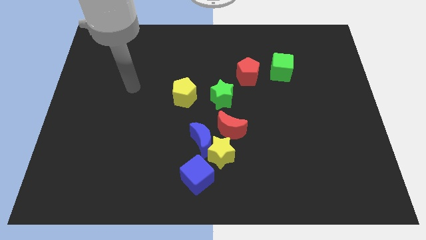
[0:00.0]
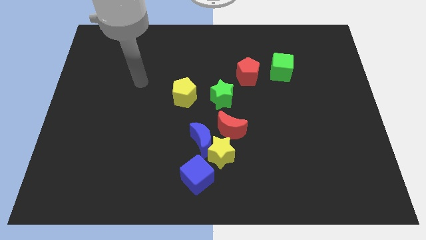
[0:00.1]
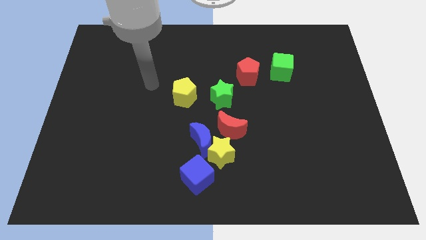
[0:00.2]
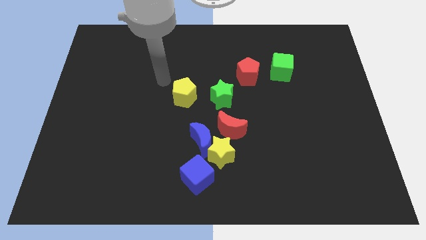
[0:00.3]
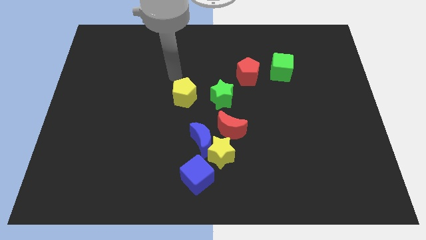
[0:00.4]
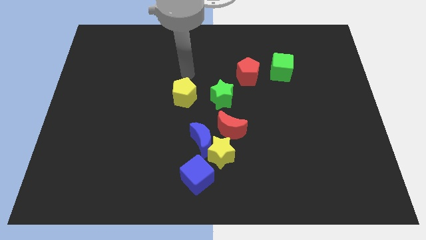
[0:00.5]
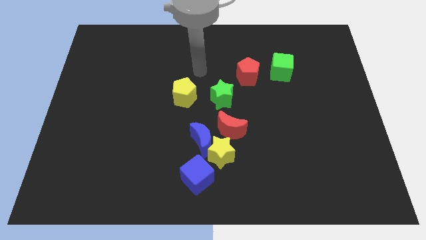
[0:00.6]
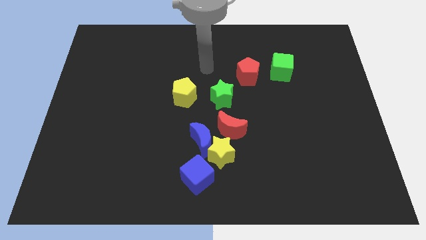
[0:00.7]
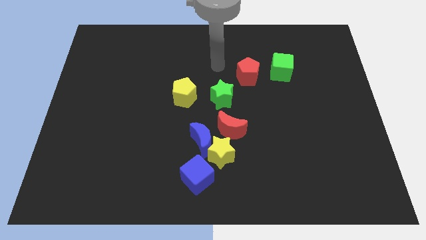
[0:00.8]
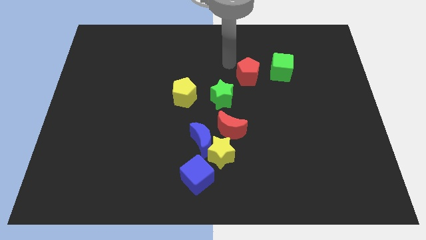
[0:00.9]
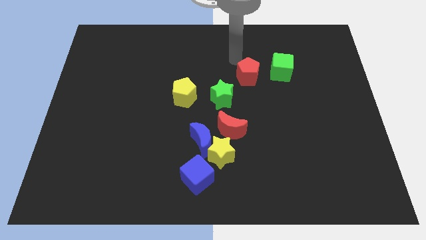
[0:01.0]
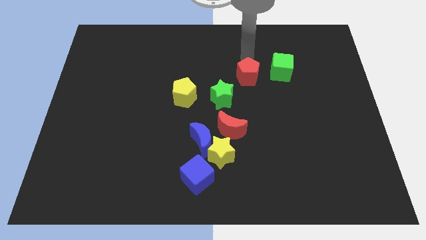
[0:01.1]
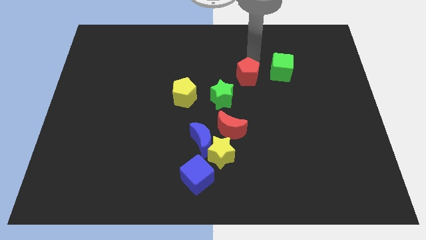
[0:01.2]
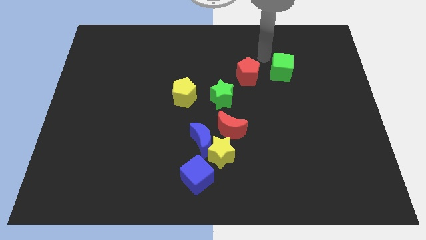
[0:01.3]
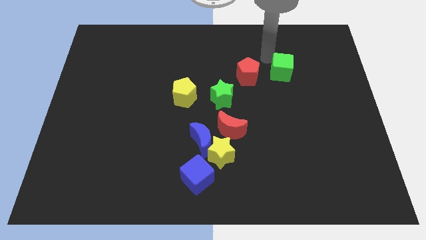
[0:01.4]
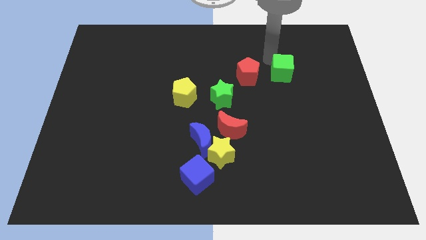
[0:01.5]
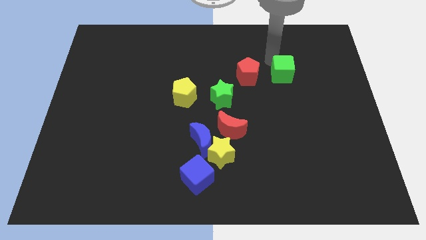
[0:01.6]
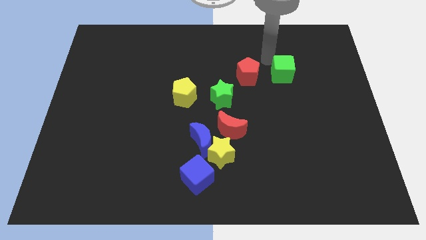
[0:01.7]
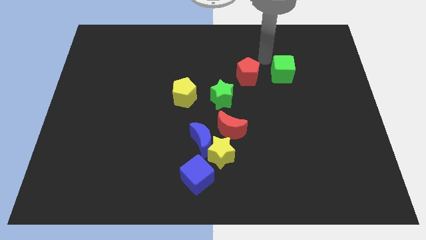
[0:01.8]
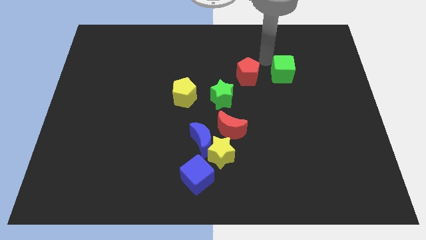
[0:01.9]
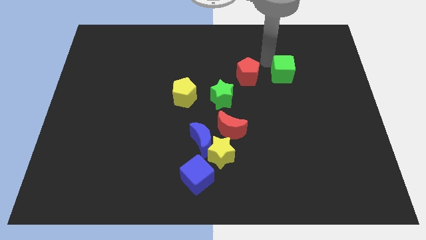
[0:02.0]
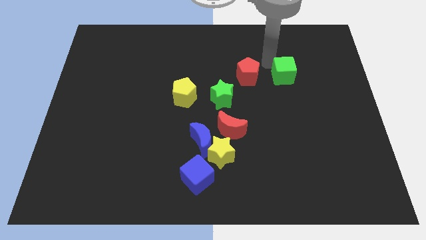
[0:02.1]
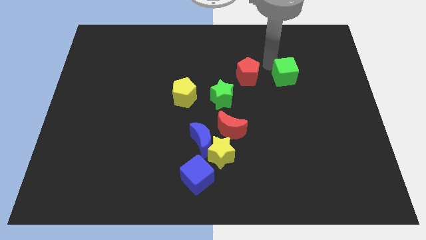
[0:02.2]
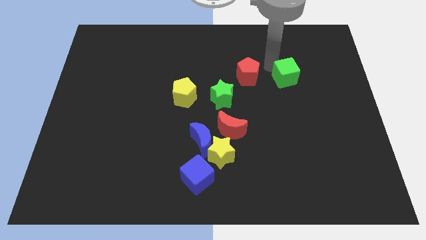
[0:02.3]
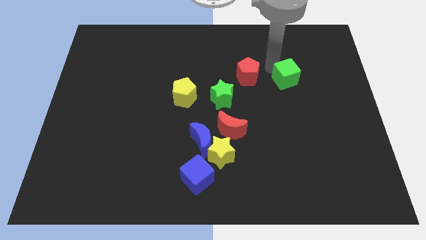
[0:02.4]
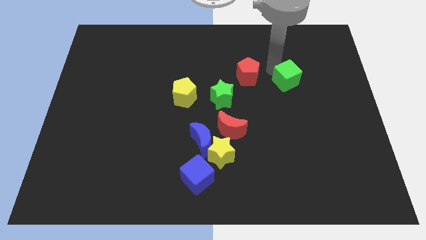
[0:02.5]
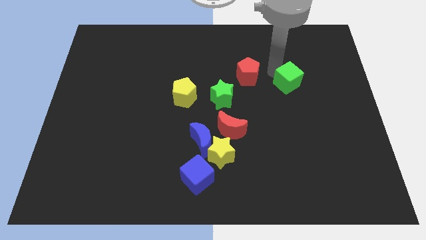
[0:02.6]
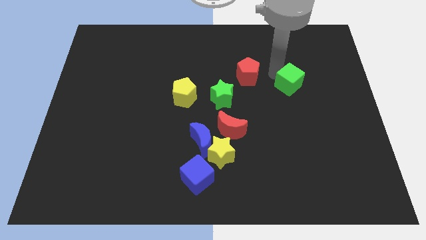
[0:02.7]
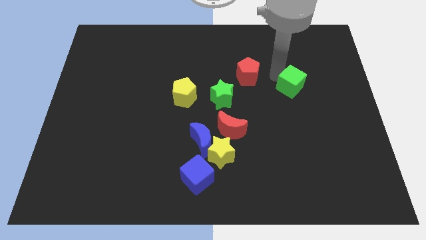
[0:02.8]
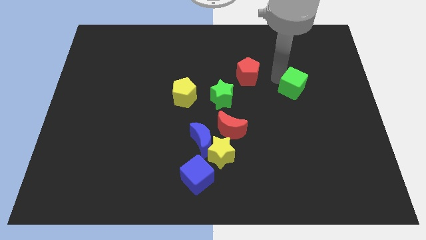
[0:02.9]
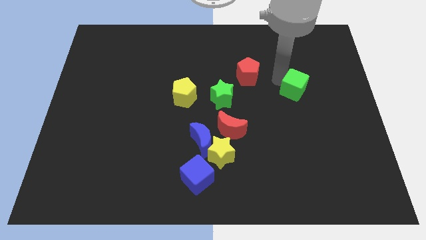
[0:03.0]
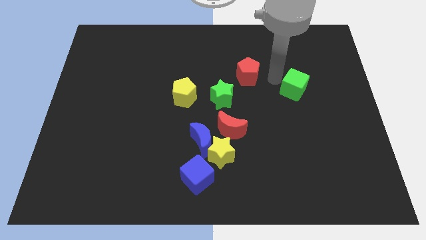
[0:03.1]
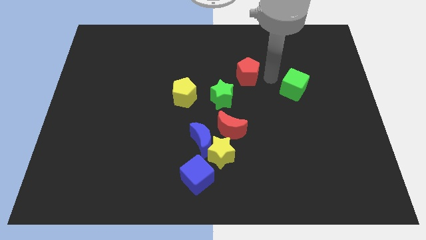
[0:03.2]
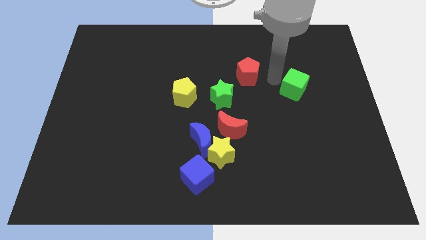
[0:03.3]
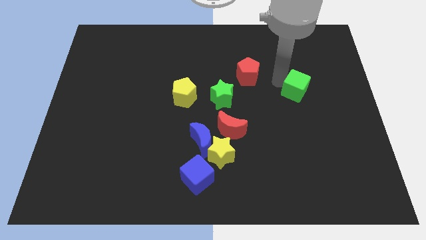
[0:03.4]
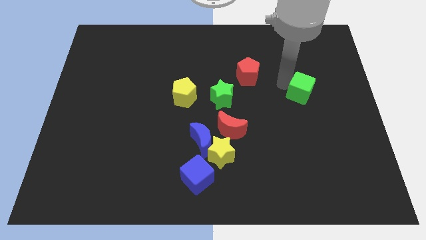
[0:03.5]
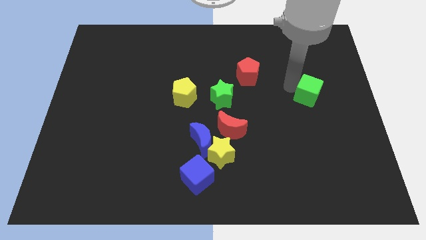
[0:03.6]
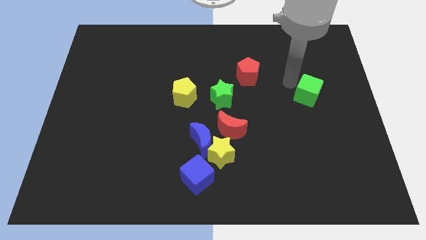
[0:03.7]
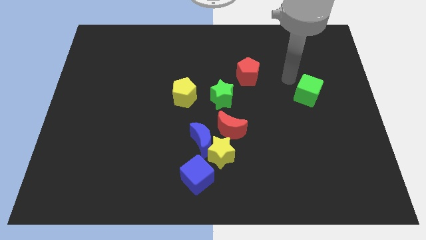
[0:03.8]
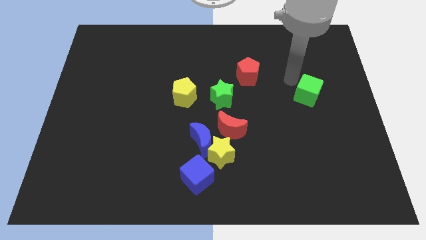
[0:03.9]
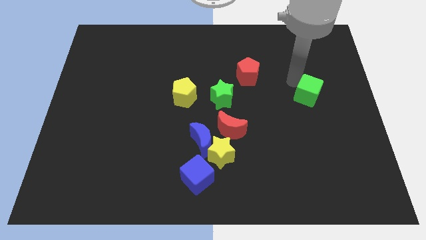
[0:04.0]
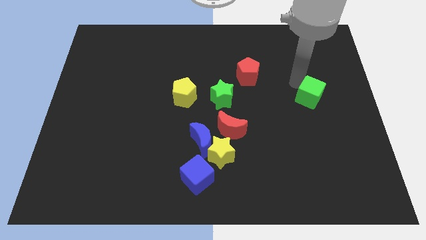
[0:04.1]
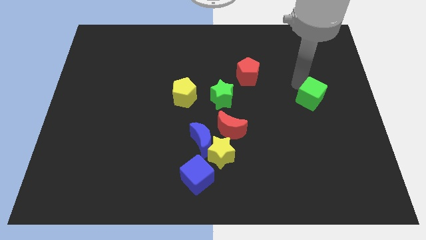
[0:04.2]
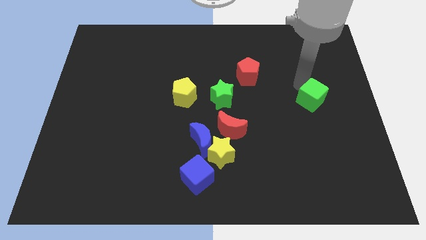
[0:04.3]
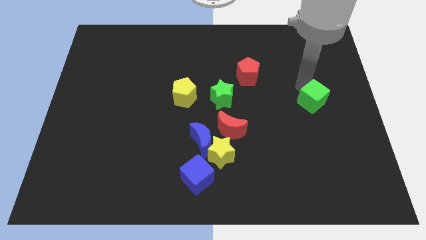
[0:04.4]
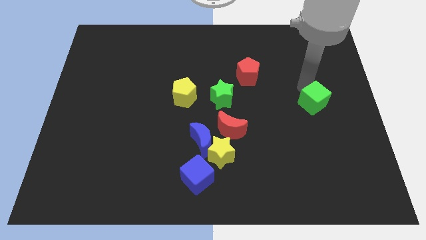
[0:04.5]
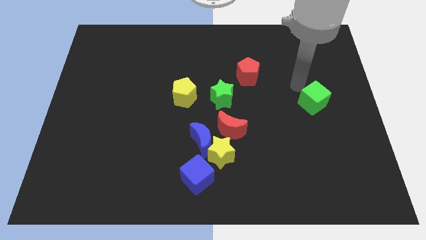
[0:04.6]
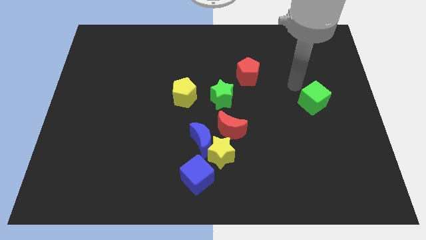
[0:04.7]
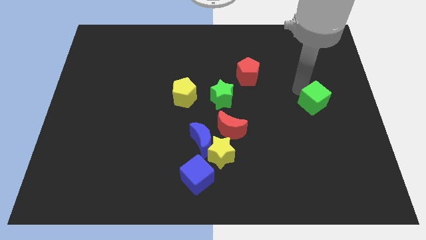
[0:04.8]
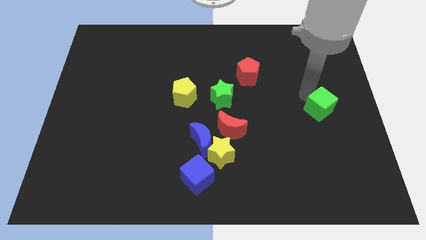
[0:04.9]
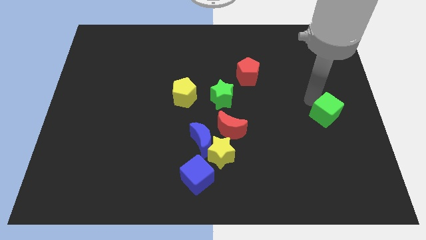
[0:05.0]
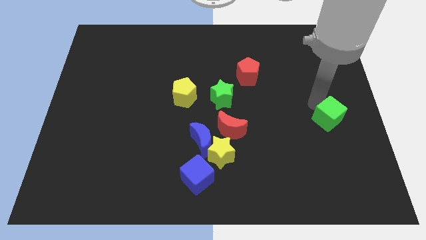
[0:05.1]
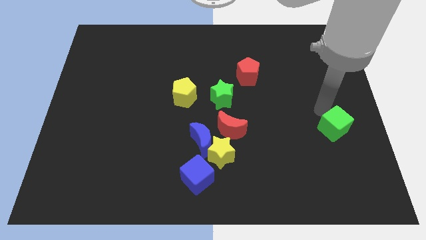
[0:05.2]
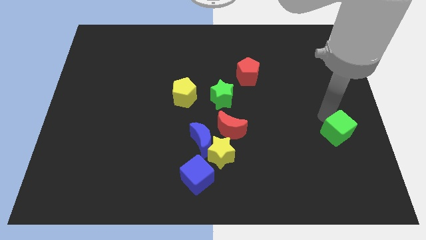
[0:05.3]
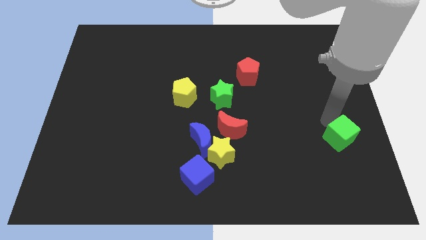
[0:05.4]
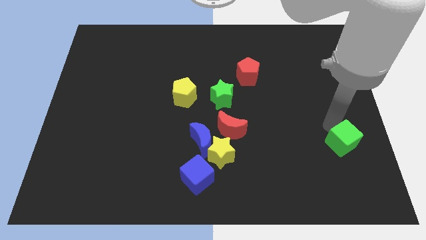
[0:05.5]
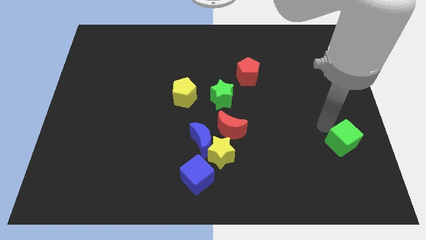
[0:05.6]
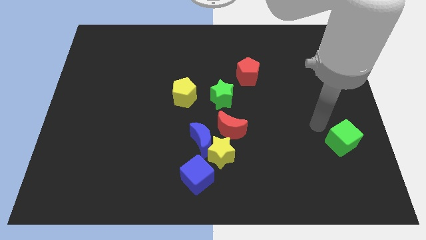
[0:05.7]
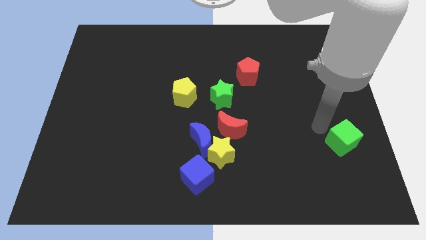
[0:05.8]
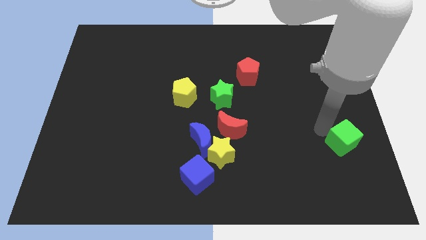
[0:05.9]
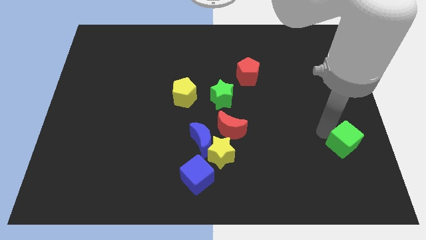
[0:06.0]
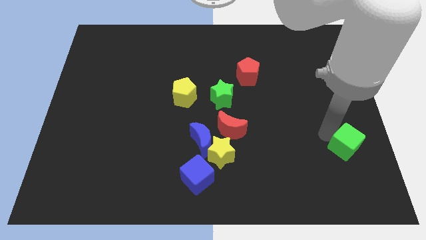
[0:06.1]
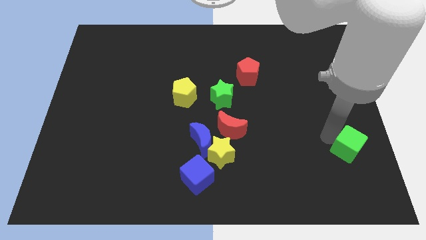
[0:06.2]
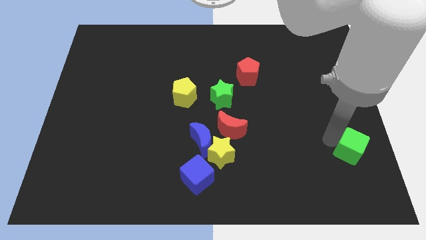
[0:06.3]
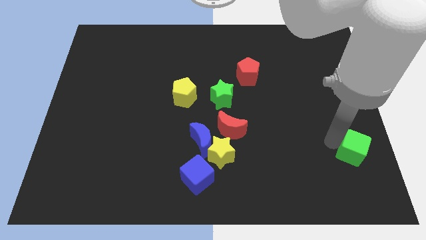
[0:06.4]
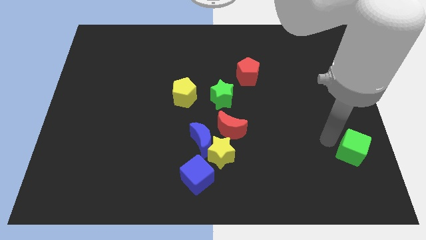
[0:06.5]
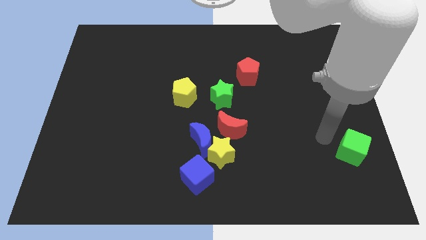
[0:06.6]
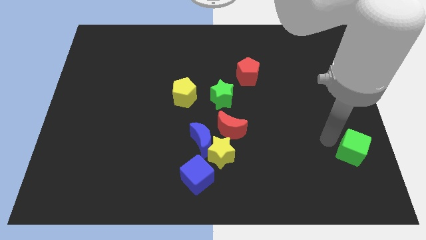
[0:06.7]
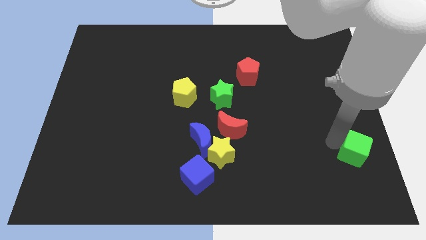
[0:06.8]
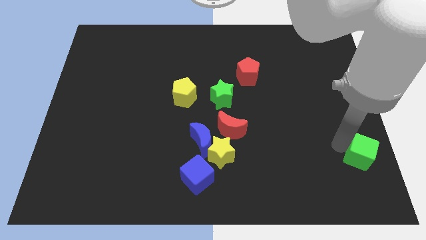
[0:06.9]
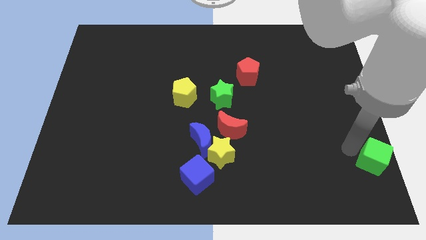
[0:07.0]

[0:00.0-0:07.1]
push the green cube to the lower right corner
